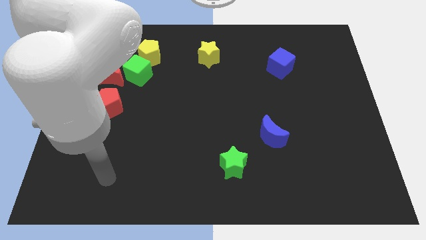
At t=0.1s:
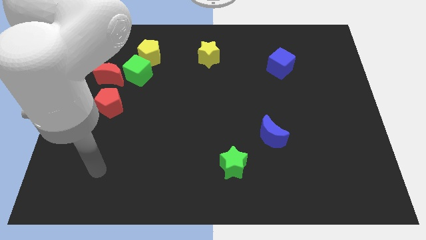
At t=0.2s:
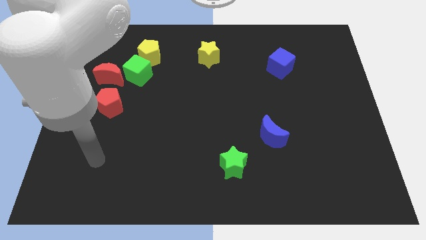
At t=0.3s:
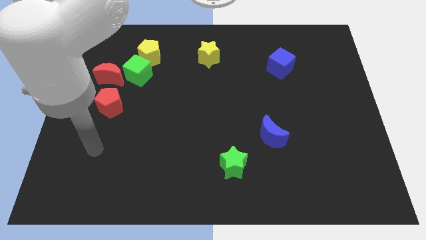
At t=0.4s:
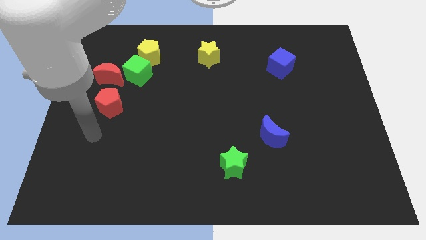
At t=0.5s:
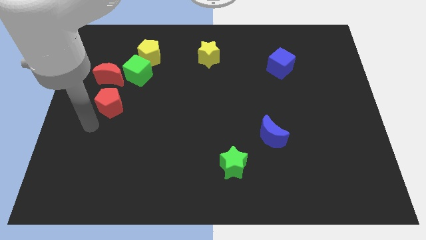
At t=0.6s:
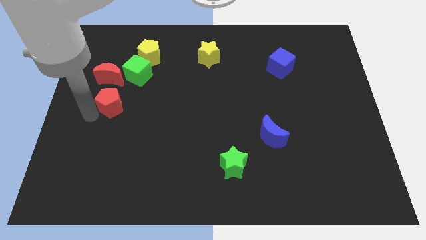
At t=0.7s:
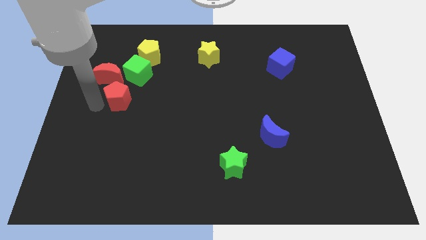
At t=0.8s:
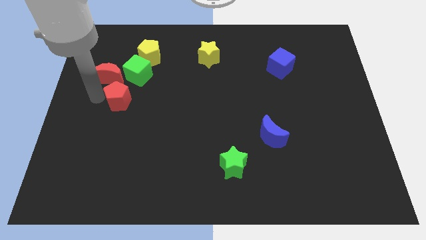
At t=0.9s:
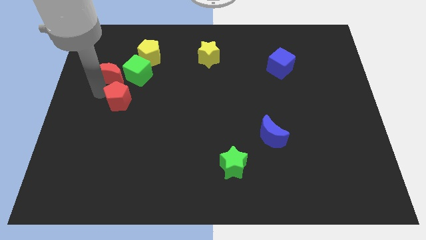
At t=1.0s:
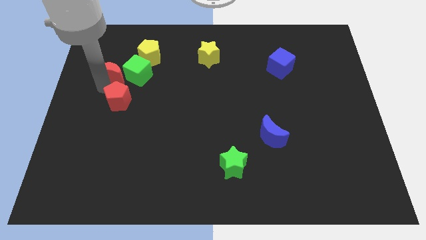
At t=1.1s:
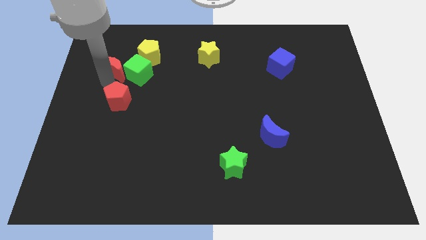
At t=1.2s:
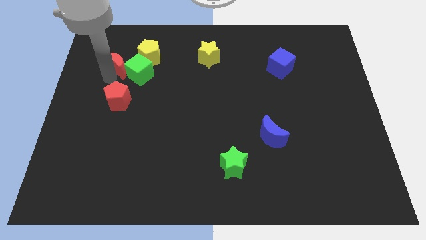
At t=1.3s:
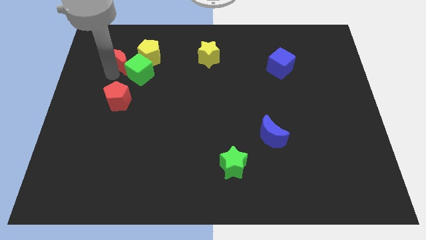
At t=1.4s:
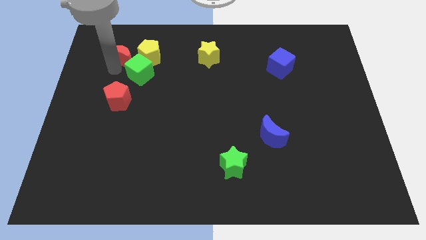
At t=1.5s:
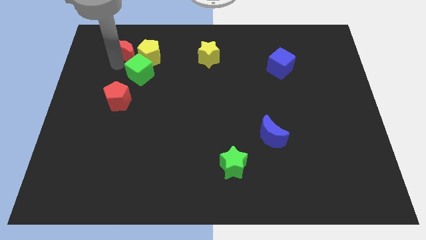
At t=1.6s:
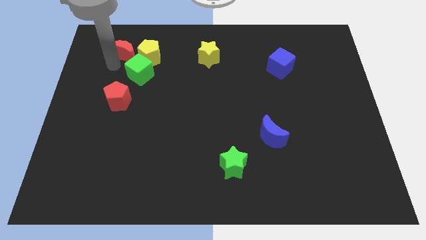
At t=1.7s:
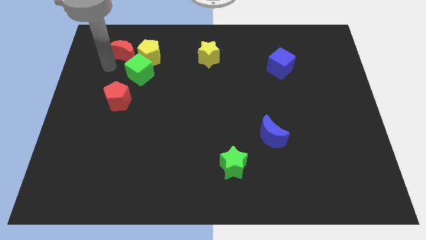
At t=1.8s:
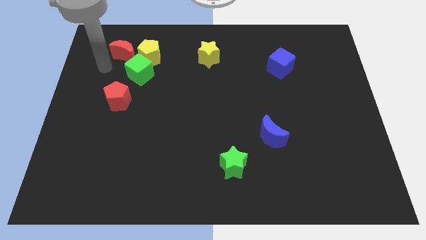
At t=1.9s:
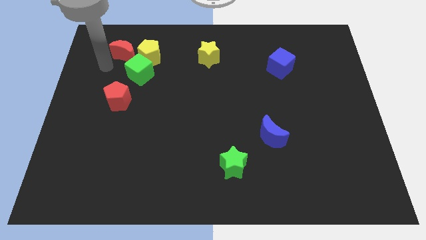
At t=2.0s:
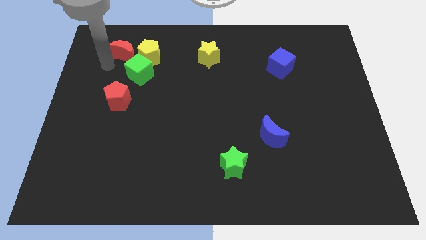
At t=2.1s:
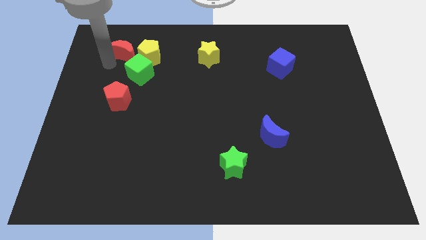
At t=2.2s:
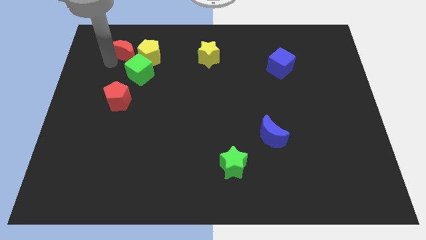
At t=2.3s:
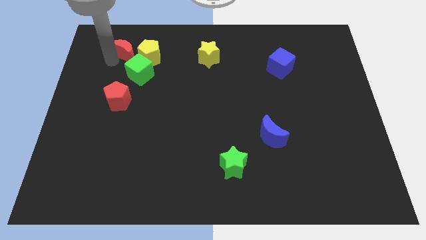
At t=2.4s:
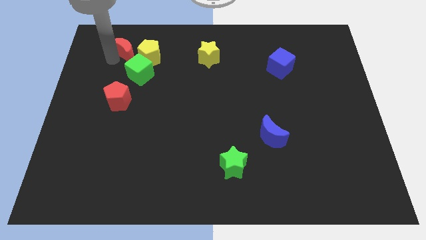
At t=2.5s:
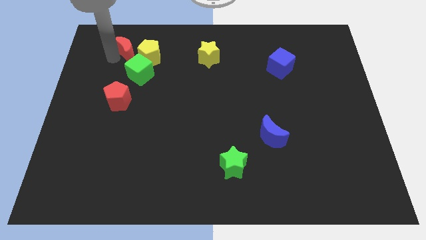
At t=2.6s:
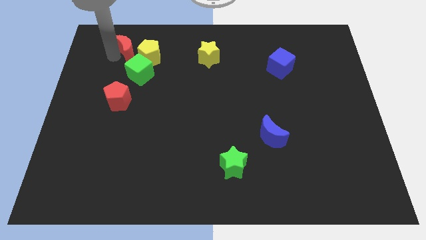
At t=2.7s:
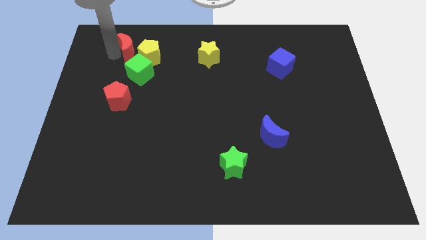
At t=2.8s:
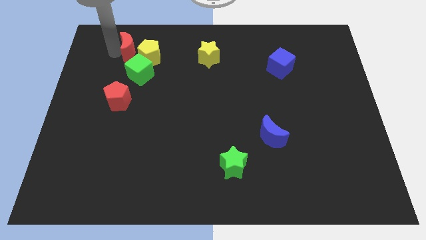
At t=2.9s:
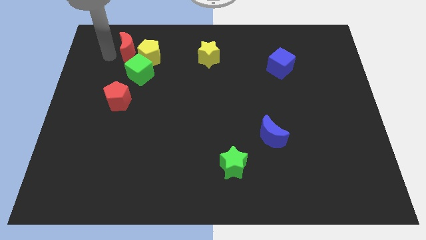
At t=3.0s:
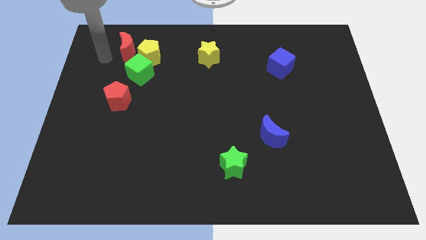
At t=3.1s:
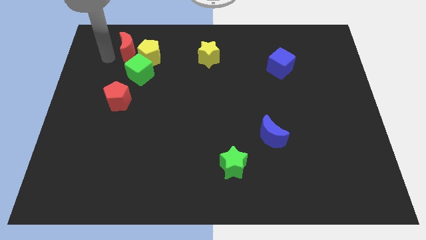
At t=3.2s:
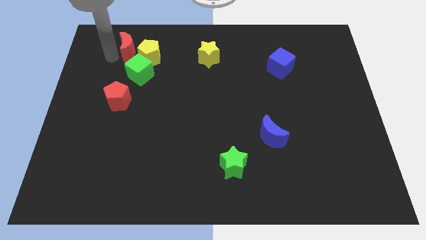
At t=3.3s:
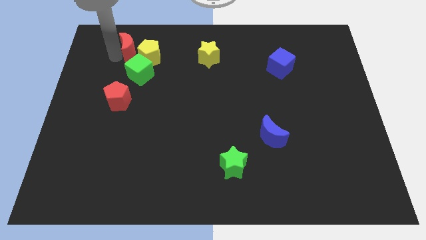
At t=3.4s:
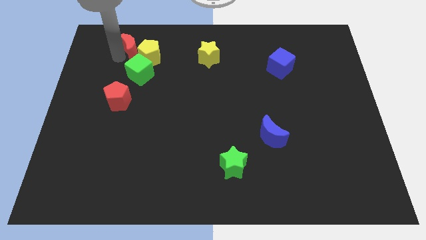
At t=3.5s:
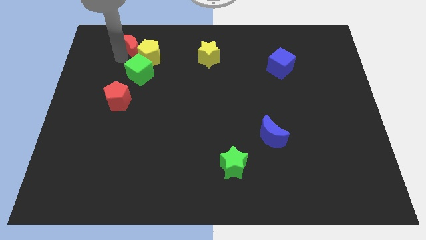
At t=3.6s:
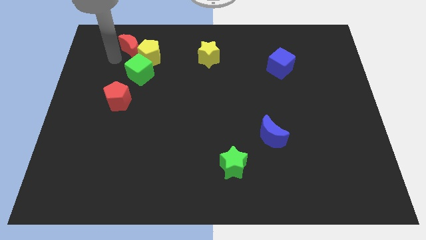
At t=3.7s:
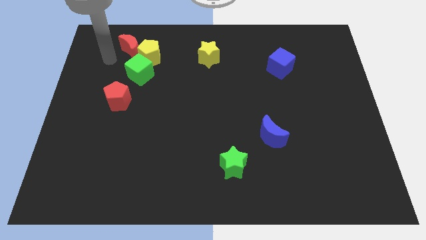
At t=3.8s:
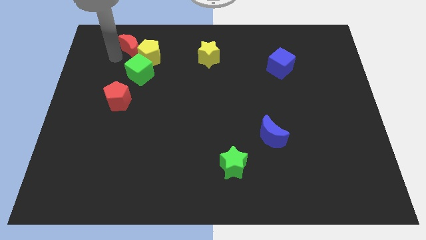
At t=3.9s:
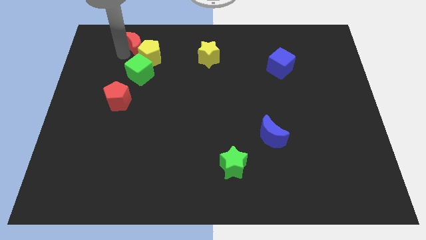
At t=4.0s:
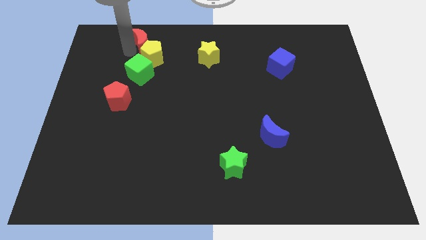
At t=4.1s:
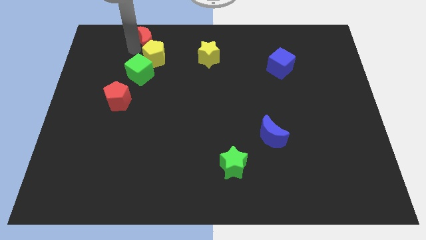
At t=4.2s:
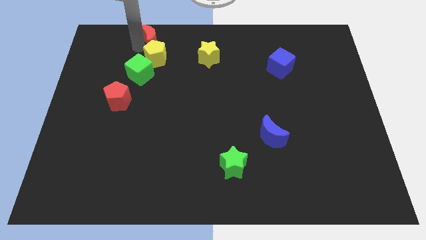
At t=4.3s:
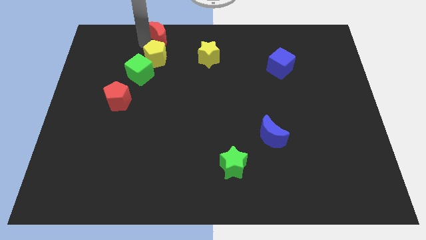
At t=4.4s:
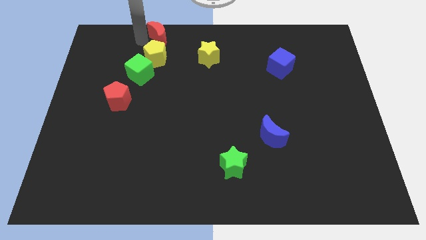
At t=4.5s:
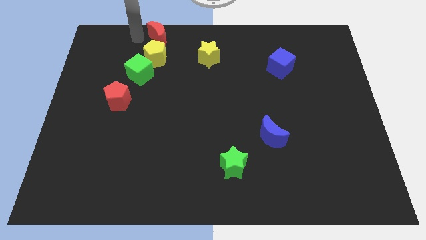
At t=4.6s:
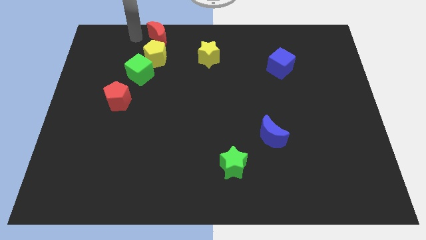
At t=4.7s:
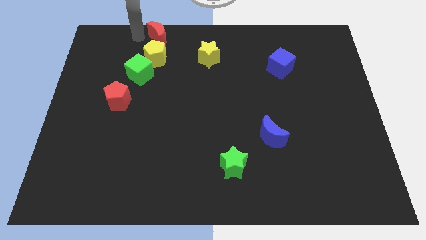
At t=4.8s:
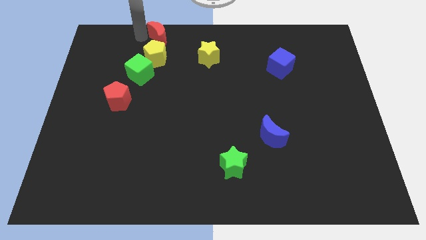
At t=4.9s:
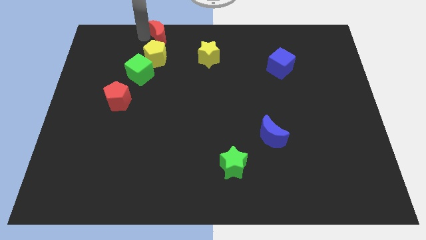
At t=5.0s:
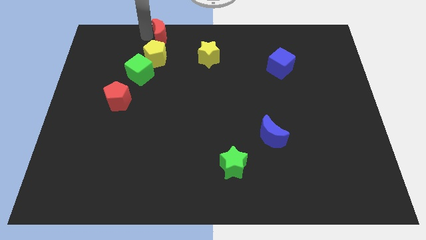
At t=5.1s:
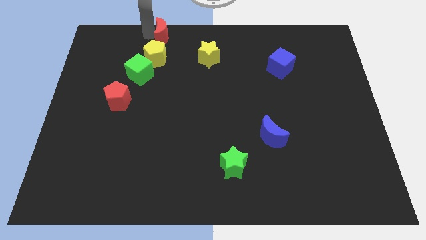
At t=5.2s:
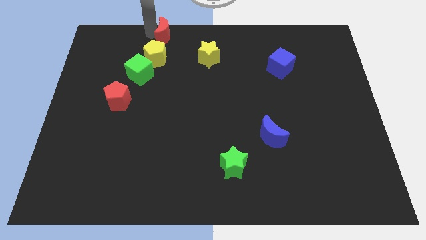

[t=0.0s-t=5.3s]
slide the red moon to the top
